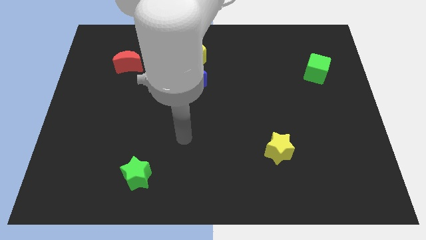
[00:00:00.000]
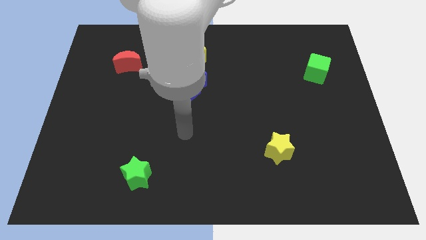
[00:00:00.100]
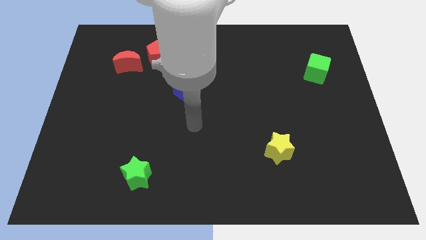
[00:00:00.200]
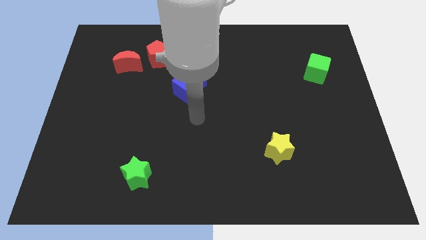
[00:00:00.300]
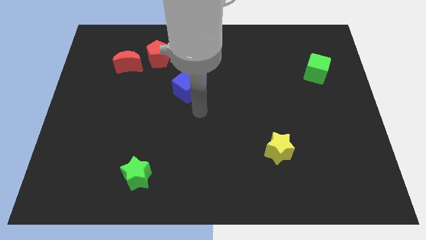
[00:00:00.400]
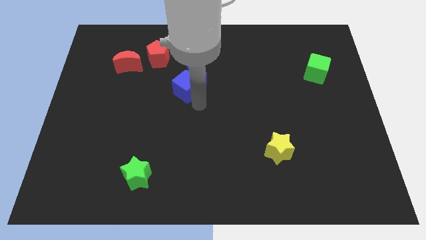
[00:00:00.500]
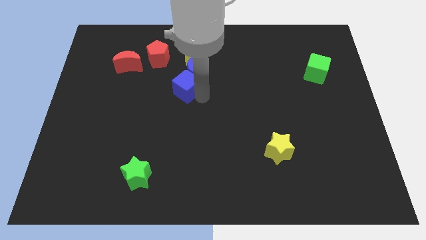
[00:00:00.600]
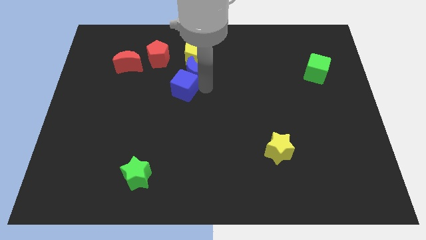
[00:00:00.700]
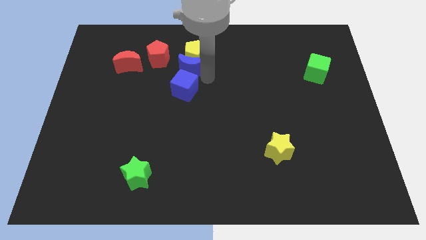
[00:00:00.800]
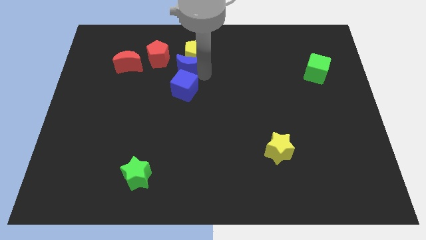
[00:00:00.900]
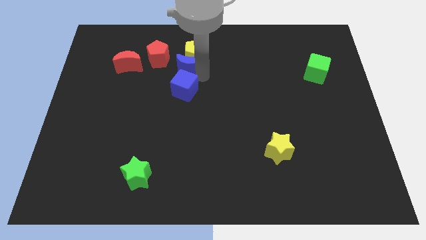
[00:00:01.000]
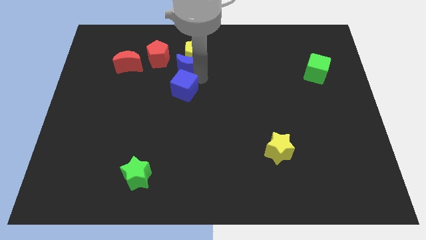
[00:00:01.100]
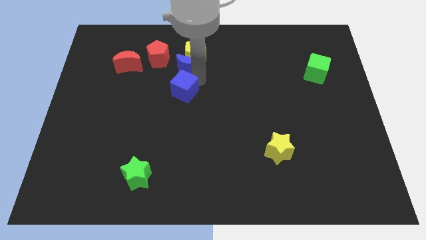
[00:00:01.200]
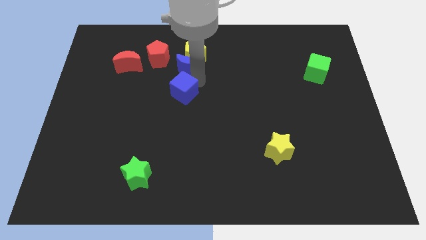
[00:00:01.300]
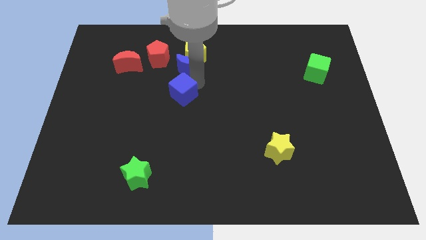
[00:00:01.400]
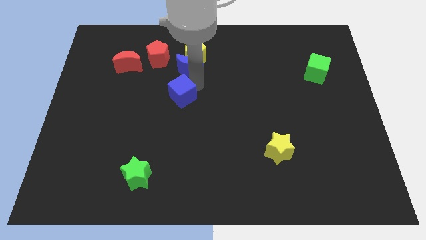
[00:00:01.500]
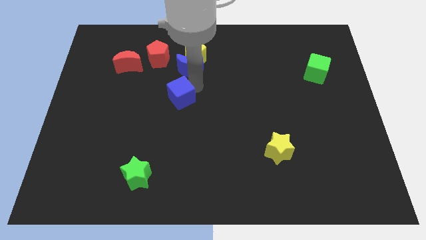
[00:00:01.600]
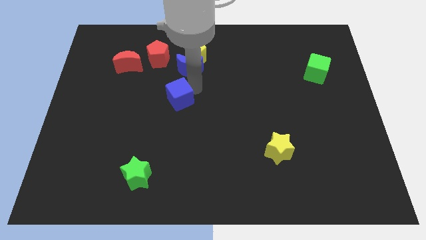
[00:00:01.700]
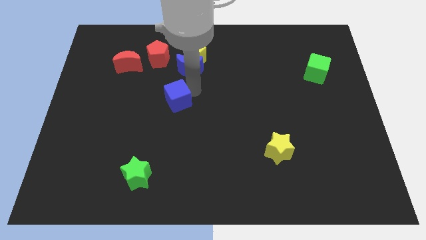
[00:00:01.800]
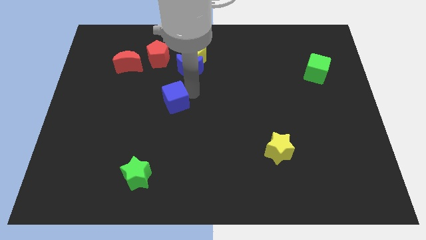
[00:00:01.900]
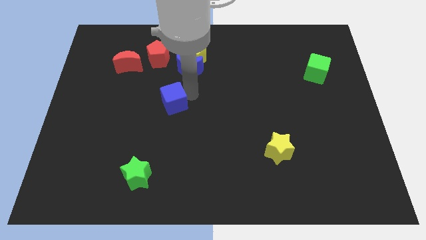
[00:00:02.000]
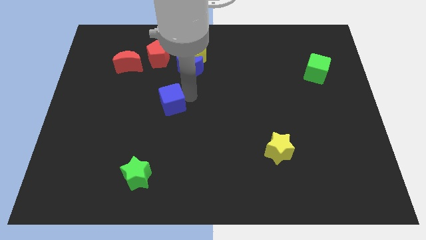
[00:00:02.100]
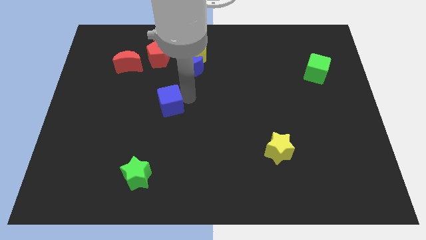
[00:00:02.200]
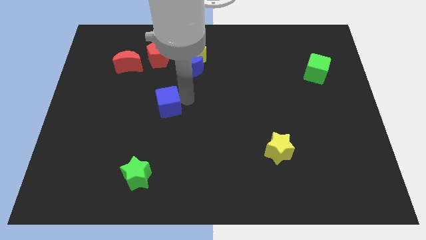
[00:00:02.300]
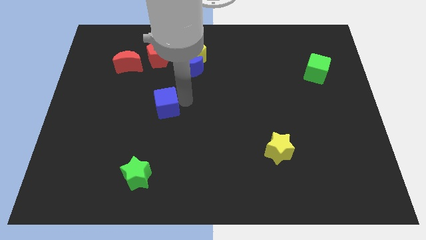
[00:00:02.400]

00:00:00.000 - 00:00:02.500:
push the blue cube downwards and left somewhat

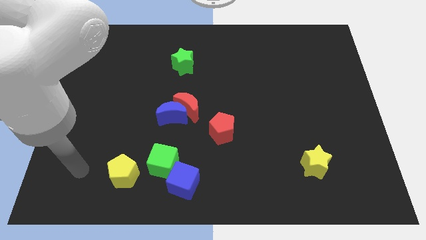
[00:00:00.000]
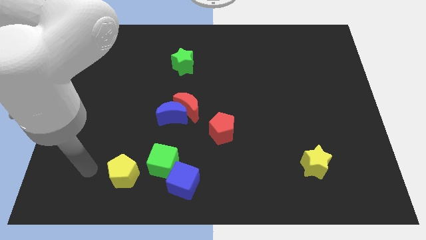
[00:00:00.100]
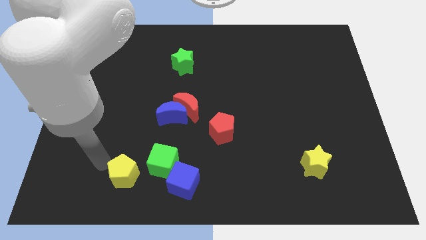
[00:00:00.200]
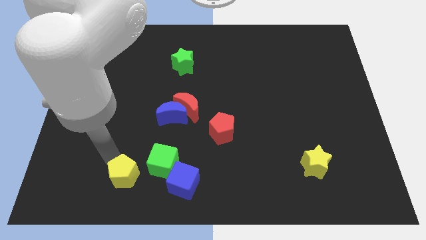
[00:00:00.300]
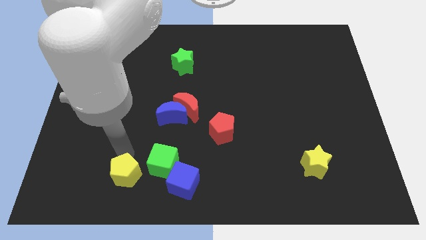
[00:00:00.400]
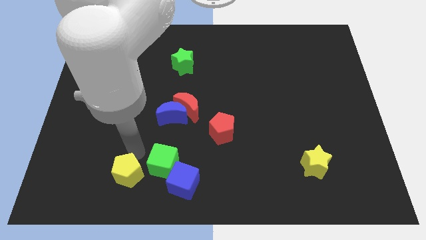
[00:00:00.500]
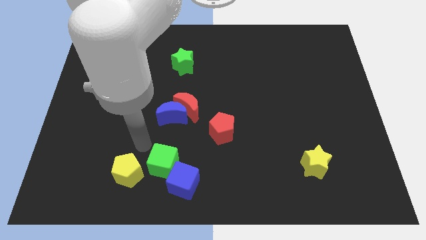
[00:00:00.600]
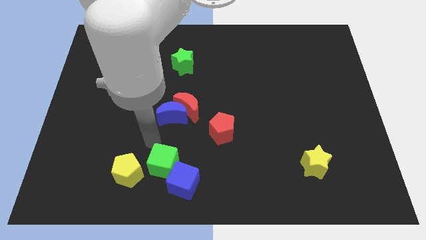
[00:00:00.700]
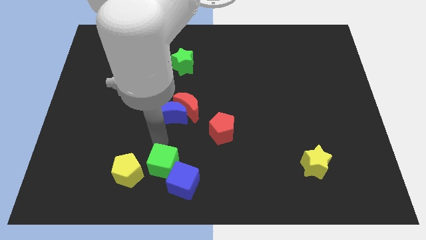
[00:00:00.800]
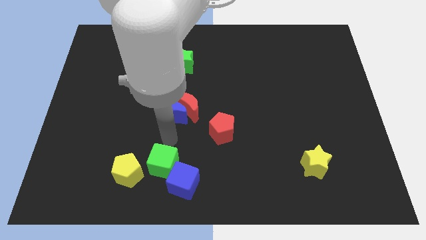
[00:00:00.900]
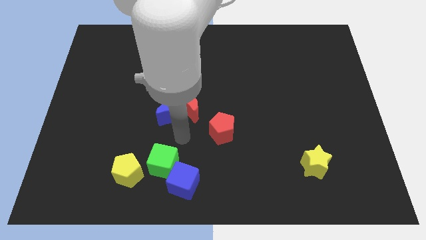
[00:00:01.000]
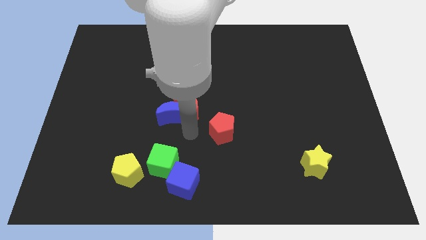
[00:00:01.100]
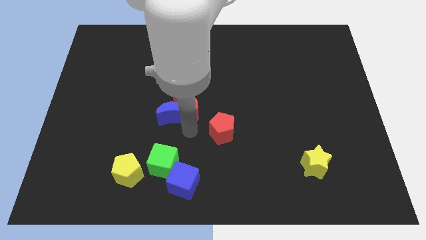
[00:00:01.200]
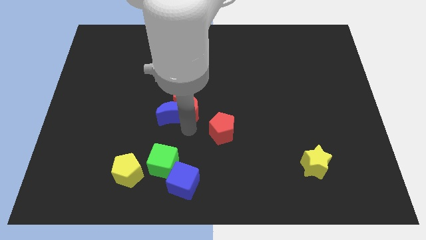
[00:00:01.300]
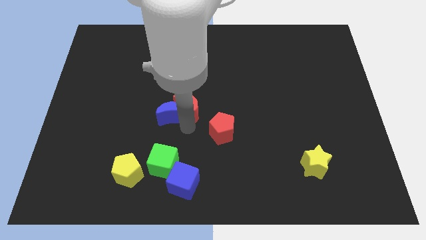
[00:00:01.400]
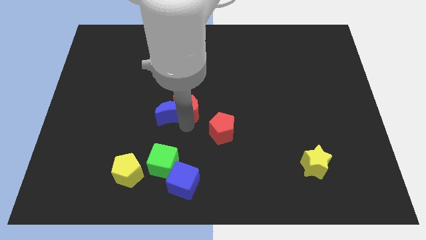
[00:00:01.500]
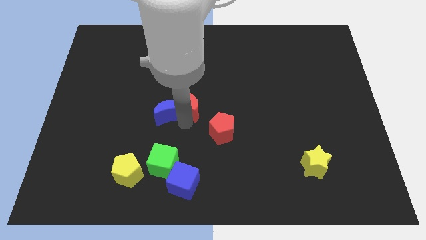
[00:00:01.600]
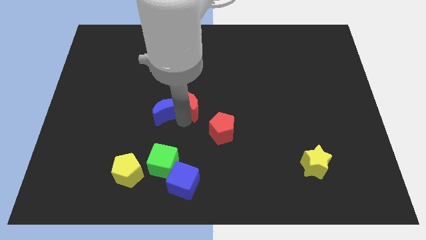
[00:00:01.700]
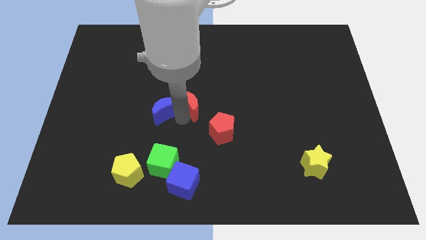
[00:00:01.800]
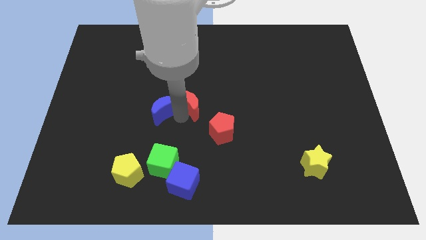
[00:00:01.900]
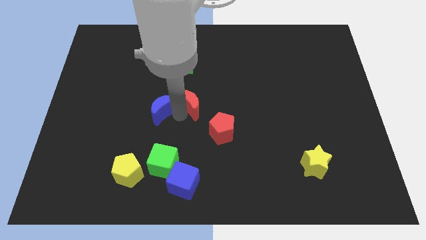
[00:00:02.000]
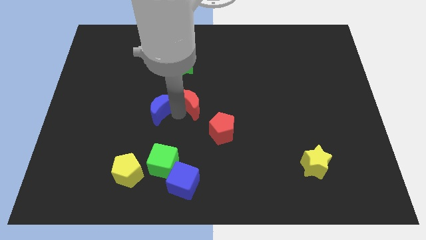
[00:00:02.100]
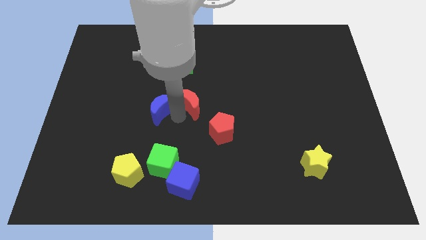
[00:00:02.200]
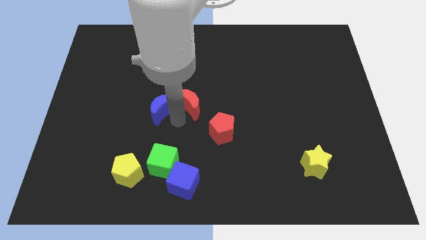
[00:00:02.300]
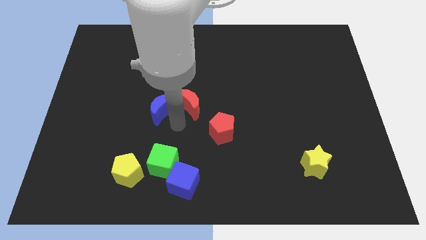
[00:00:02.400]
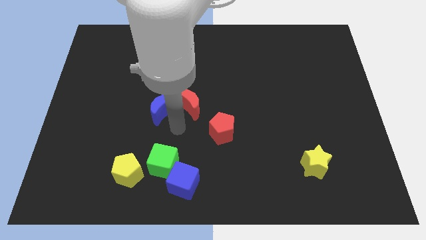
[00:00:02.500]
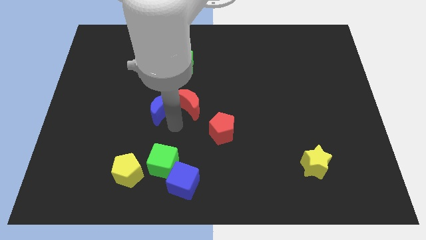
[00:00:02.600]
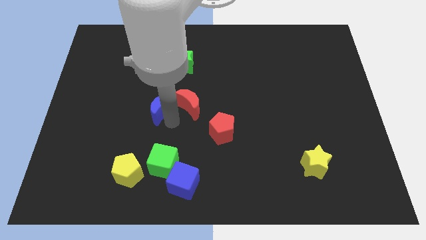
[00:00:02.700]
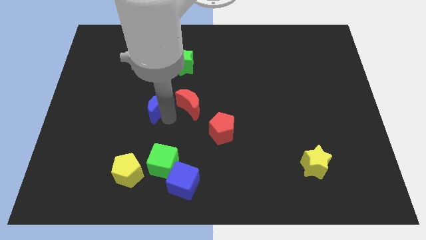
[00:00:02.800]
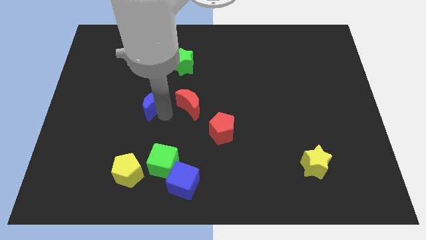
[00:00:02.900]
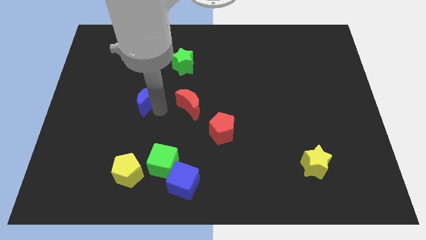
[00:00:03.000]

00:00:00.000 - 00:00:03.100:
move the blue moon upwards and to the left diagonally slightly

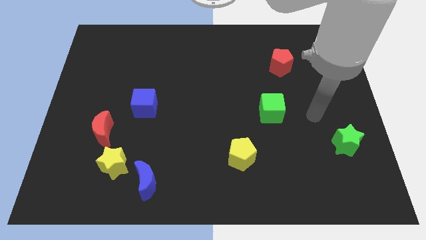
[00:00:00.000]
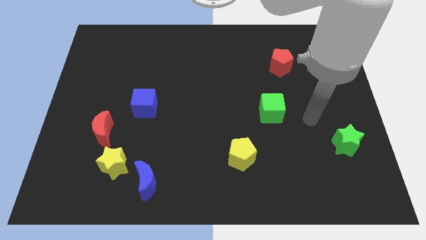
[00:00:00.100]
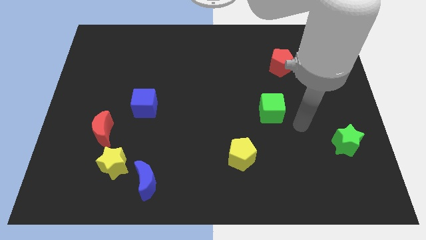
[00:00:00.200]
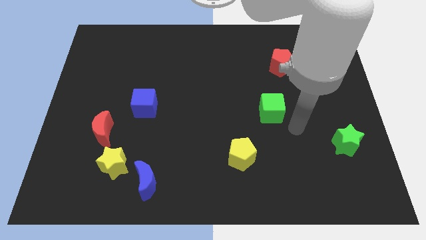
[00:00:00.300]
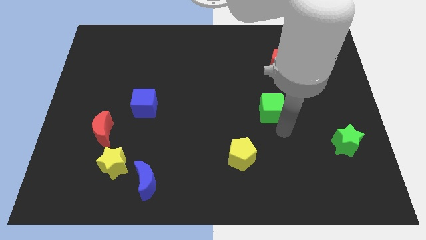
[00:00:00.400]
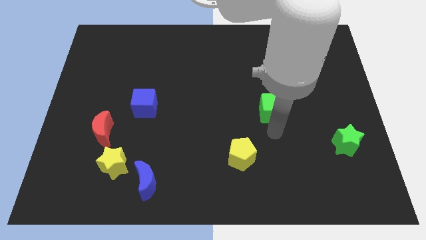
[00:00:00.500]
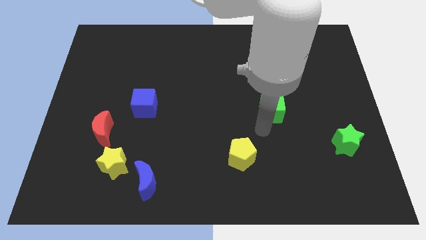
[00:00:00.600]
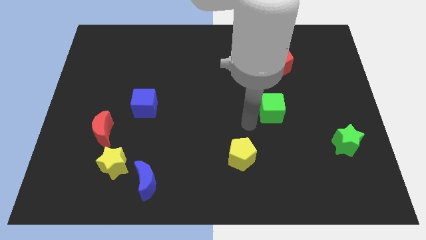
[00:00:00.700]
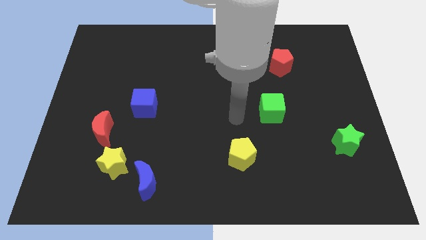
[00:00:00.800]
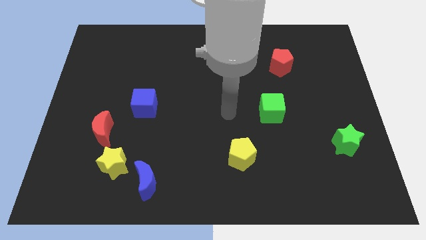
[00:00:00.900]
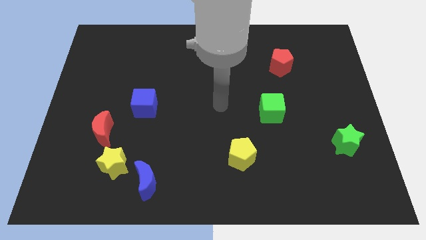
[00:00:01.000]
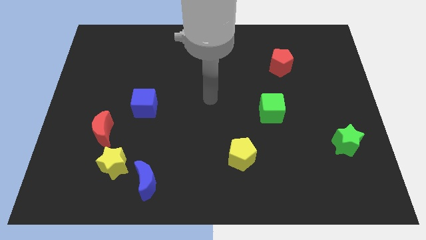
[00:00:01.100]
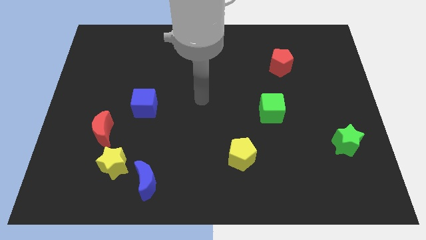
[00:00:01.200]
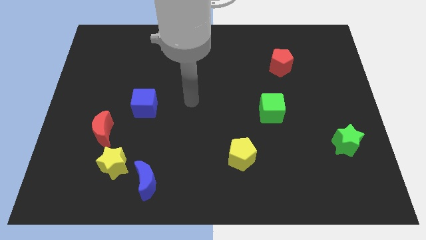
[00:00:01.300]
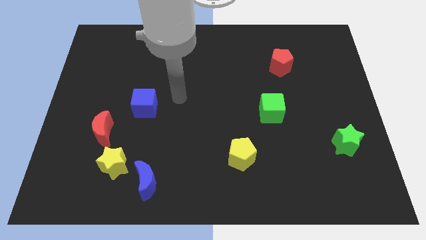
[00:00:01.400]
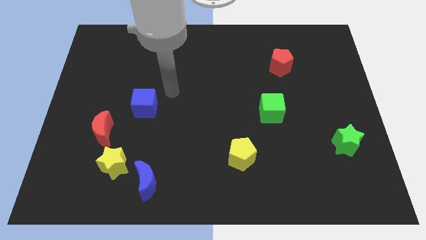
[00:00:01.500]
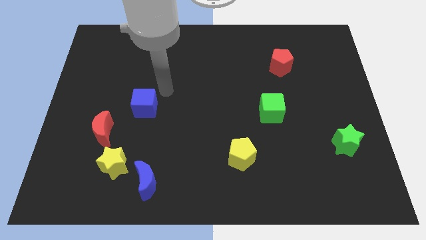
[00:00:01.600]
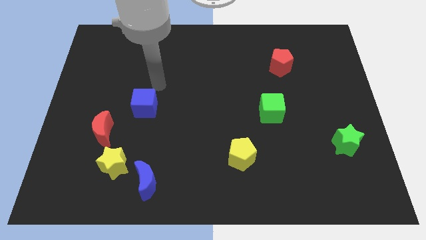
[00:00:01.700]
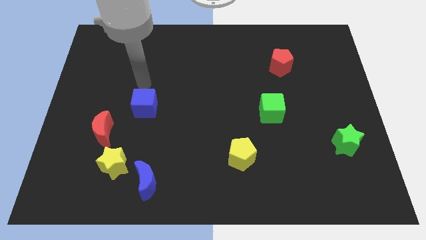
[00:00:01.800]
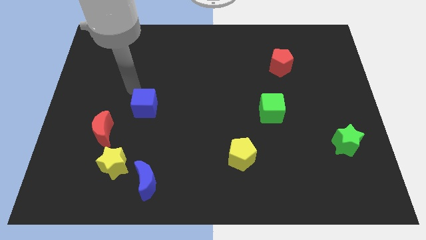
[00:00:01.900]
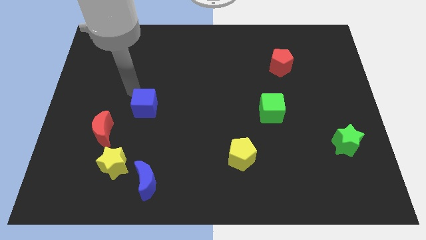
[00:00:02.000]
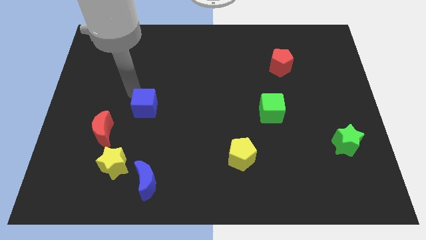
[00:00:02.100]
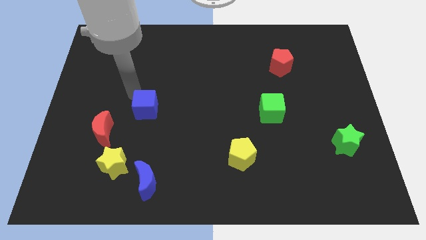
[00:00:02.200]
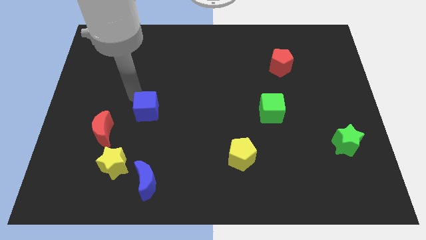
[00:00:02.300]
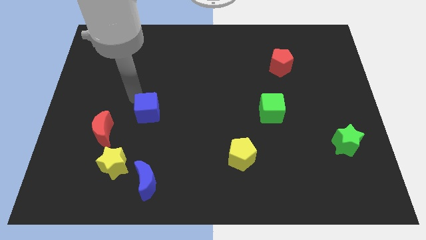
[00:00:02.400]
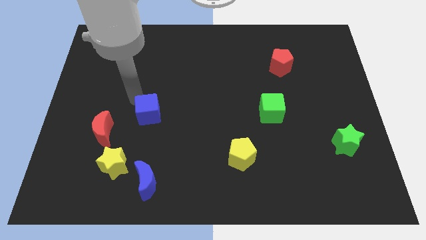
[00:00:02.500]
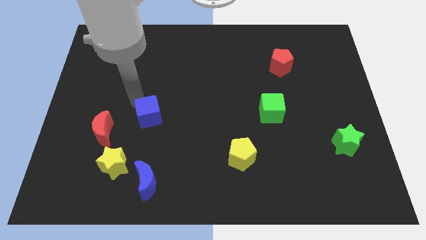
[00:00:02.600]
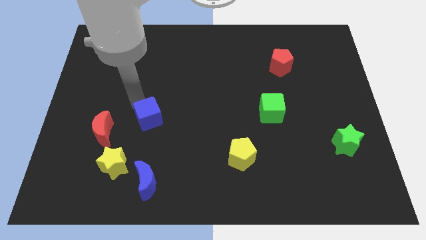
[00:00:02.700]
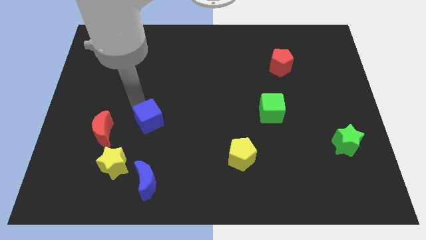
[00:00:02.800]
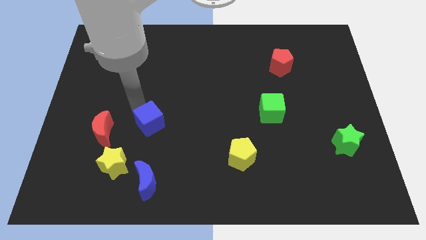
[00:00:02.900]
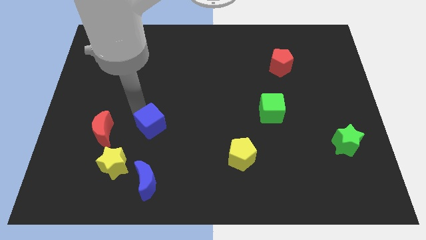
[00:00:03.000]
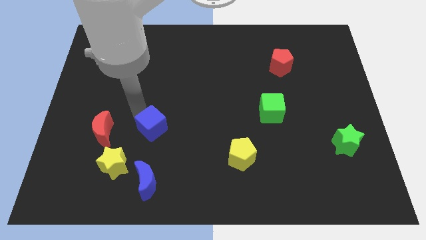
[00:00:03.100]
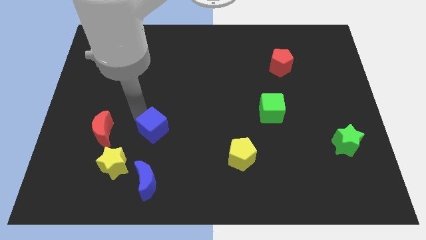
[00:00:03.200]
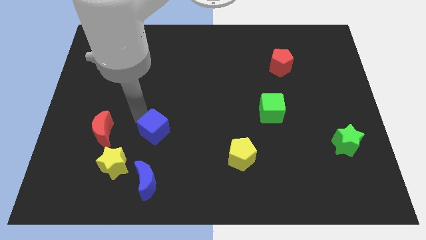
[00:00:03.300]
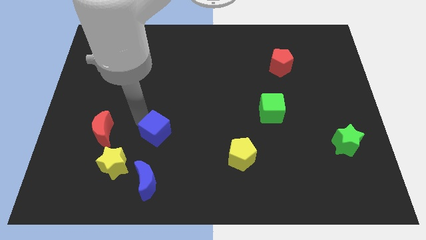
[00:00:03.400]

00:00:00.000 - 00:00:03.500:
slightly slide the blue cube down and right diagonally
